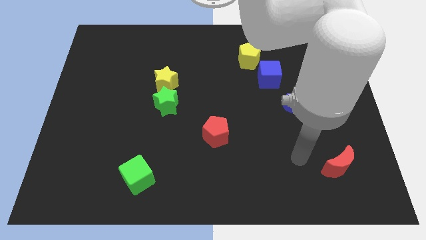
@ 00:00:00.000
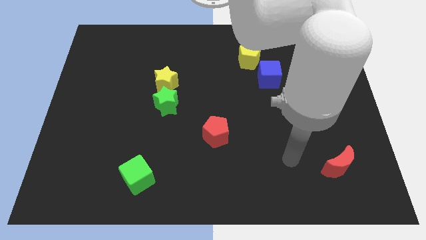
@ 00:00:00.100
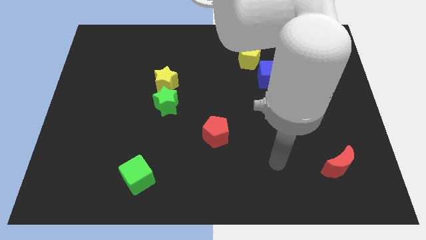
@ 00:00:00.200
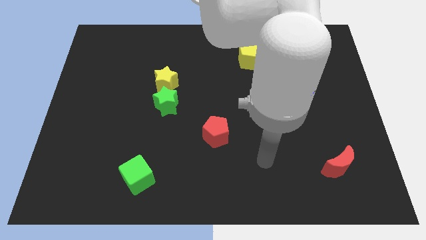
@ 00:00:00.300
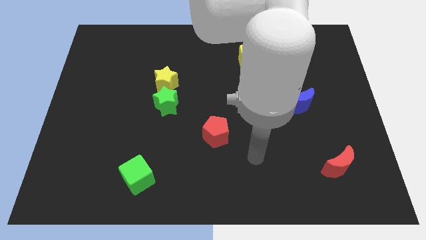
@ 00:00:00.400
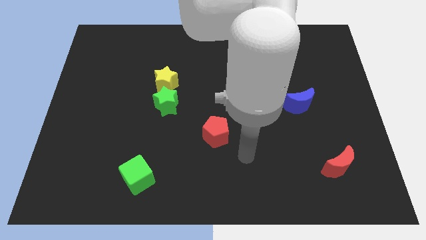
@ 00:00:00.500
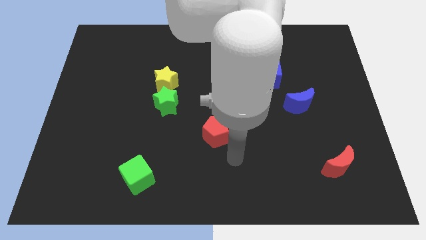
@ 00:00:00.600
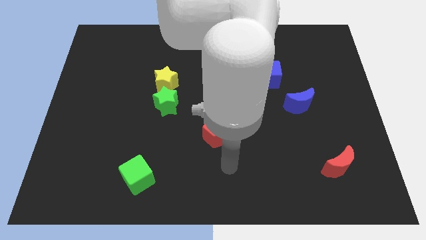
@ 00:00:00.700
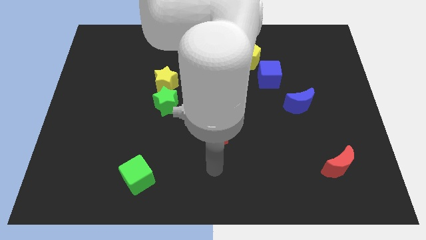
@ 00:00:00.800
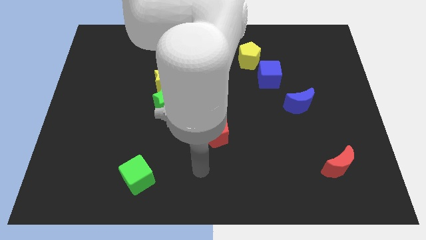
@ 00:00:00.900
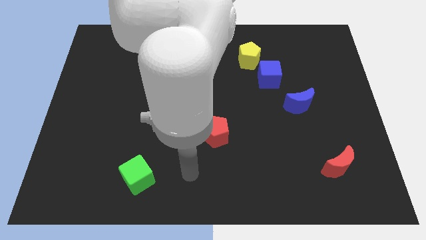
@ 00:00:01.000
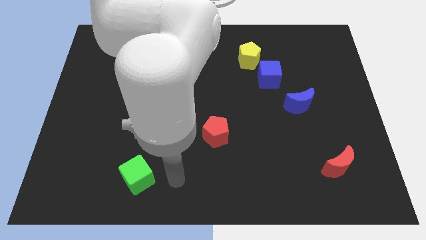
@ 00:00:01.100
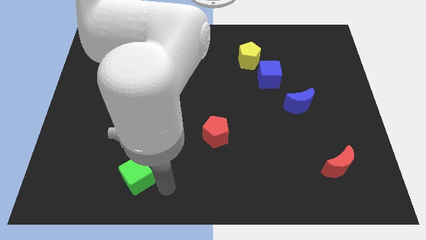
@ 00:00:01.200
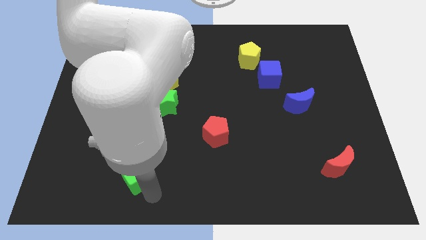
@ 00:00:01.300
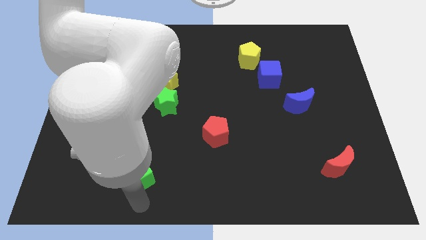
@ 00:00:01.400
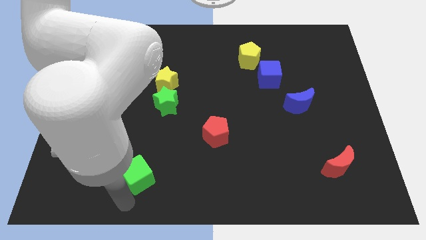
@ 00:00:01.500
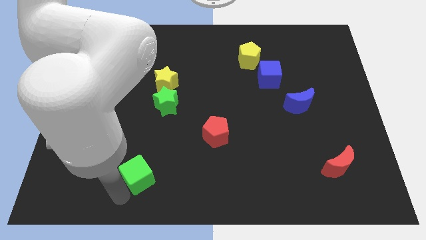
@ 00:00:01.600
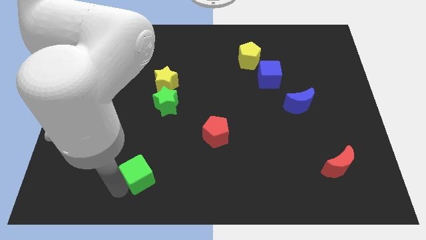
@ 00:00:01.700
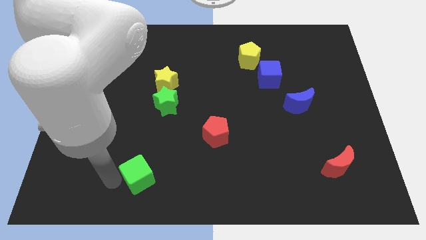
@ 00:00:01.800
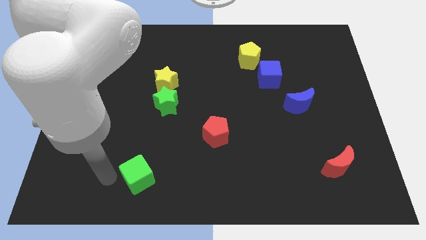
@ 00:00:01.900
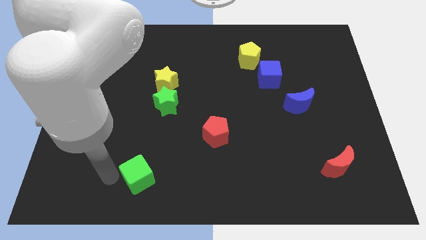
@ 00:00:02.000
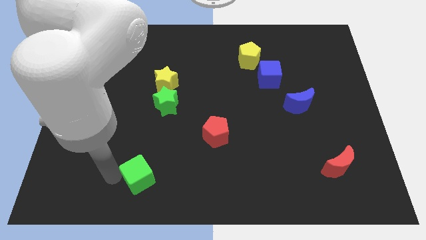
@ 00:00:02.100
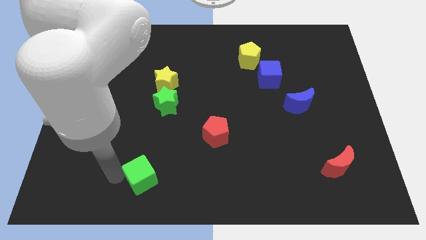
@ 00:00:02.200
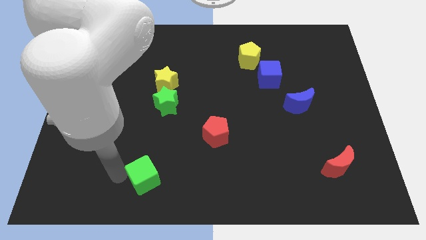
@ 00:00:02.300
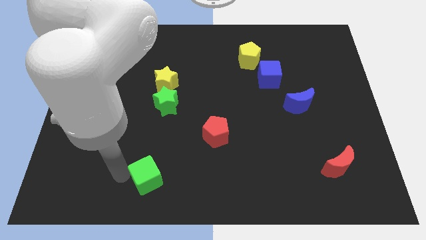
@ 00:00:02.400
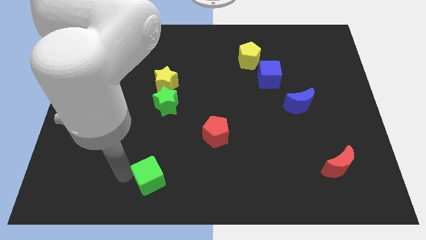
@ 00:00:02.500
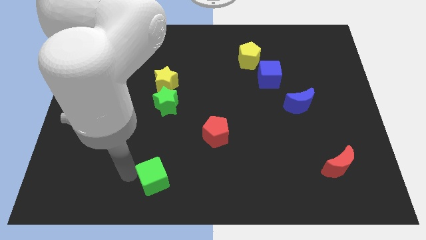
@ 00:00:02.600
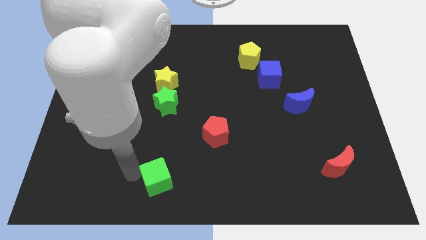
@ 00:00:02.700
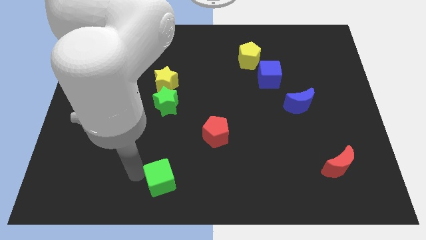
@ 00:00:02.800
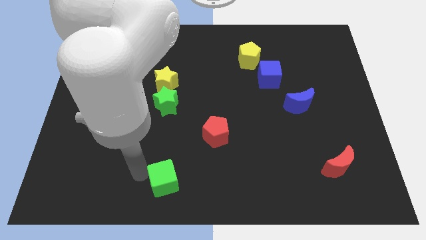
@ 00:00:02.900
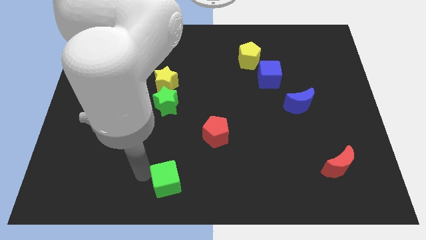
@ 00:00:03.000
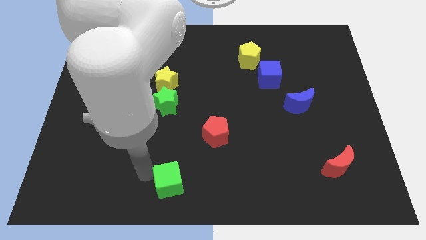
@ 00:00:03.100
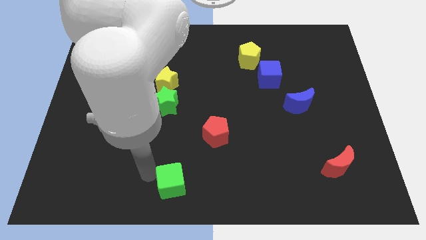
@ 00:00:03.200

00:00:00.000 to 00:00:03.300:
slightly push the green cube to the right

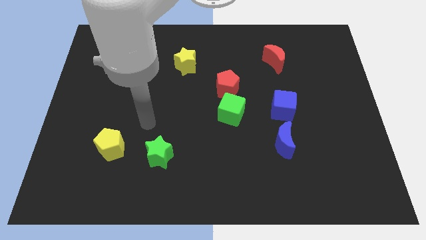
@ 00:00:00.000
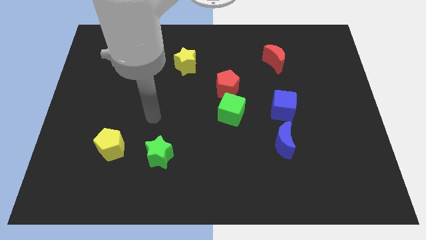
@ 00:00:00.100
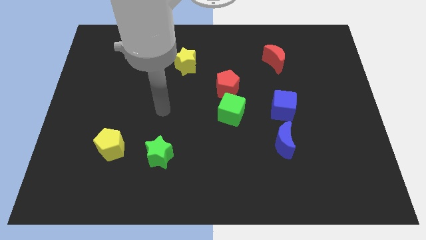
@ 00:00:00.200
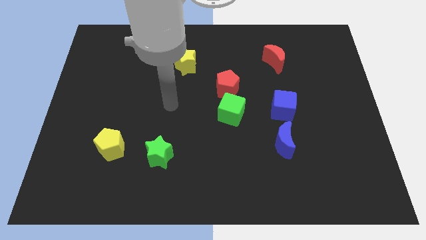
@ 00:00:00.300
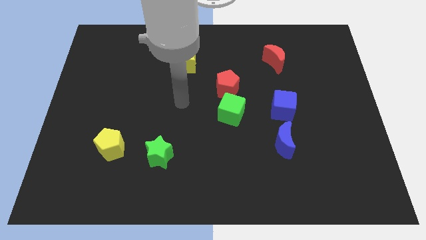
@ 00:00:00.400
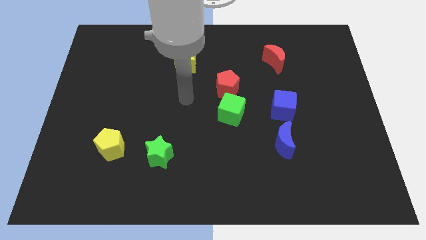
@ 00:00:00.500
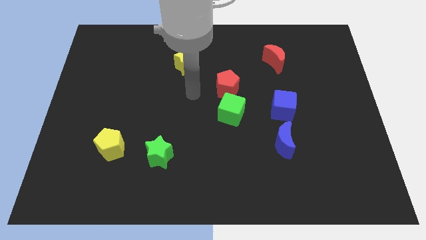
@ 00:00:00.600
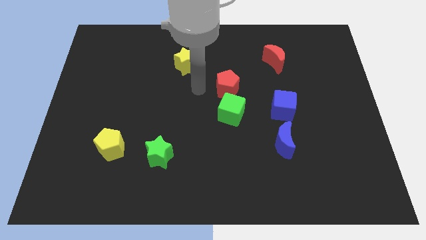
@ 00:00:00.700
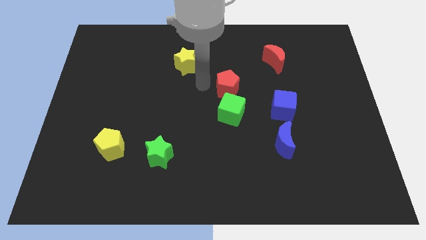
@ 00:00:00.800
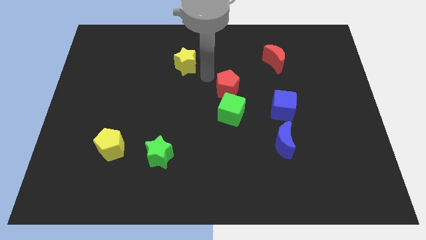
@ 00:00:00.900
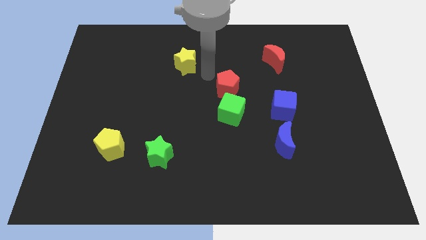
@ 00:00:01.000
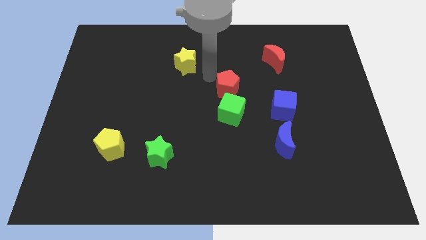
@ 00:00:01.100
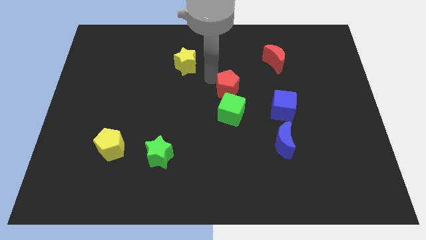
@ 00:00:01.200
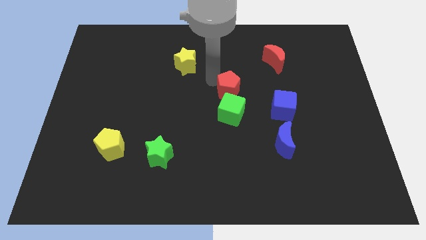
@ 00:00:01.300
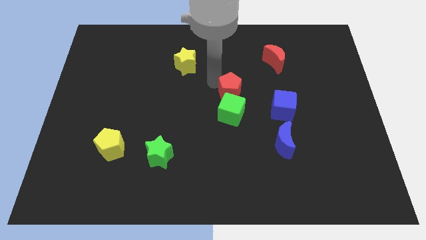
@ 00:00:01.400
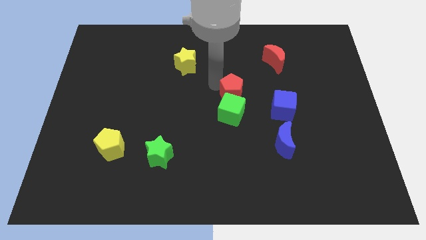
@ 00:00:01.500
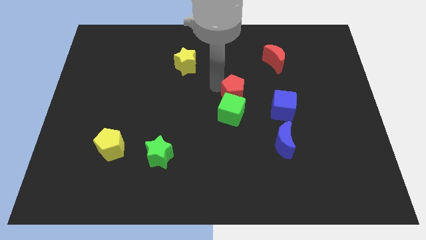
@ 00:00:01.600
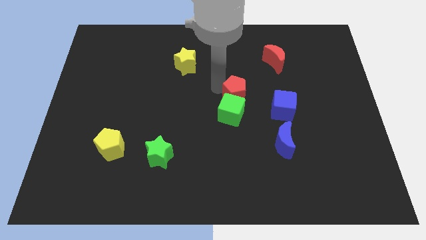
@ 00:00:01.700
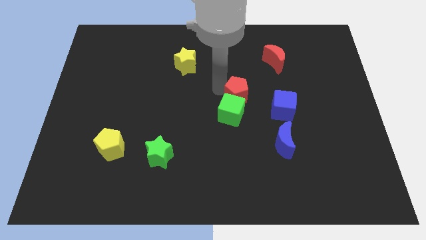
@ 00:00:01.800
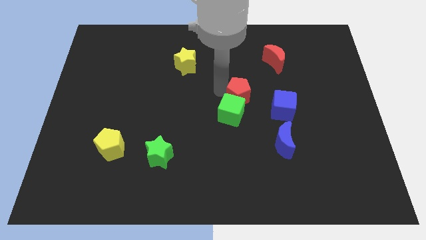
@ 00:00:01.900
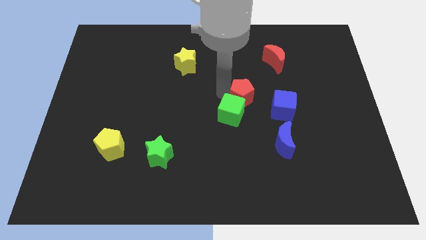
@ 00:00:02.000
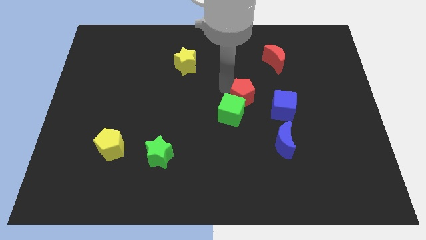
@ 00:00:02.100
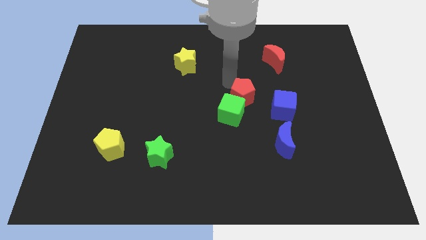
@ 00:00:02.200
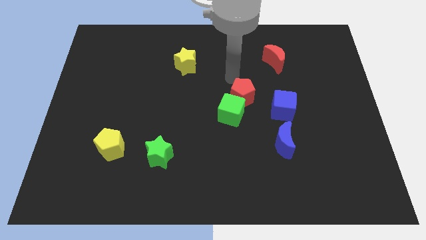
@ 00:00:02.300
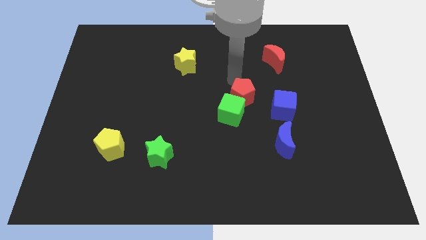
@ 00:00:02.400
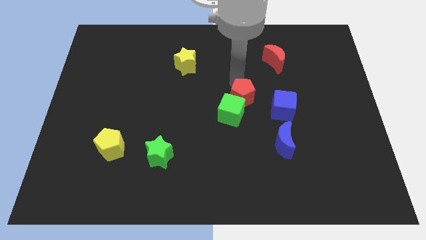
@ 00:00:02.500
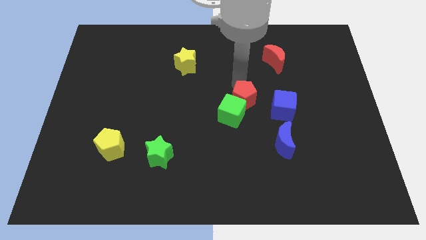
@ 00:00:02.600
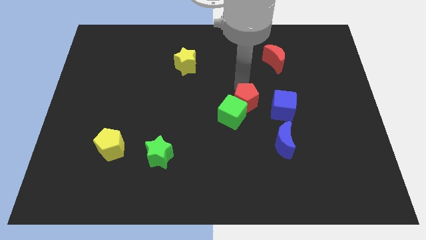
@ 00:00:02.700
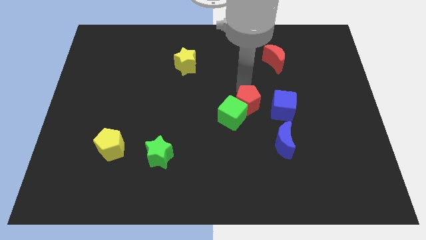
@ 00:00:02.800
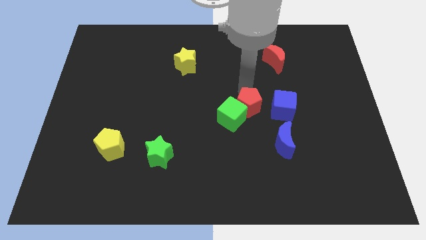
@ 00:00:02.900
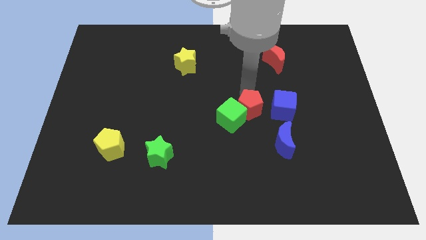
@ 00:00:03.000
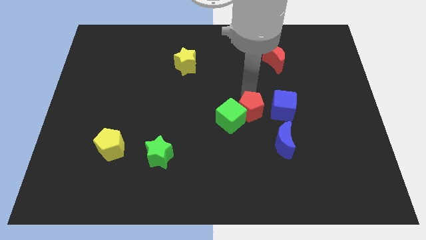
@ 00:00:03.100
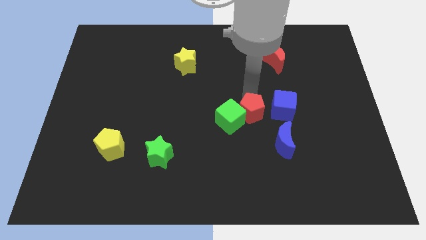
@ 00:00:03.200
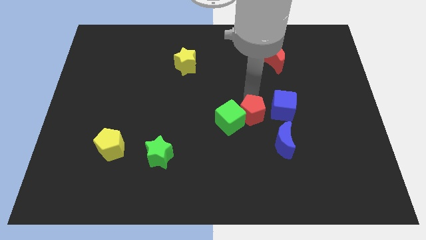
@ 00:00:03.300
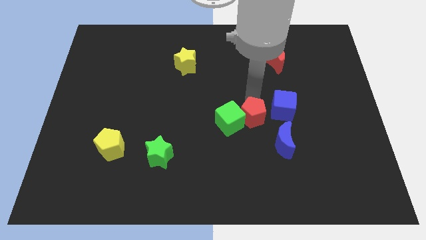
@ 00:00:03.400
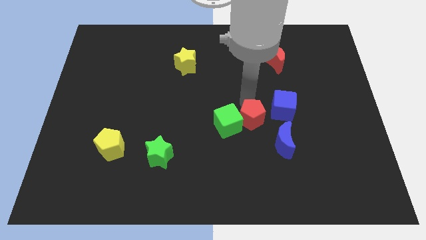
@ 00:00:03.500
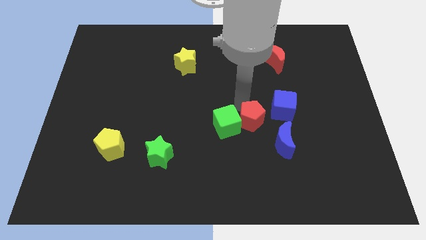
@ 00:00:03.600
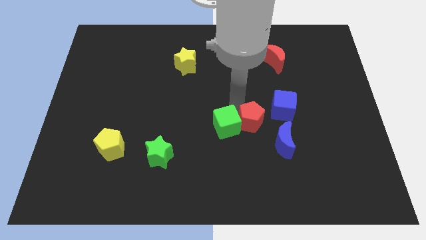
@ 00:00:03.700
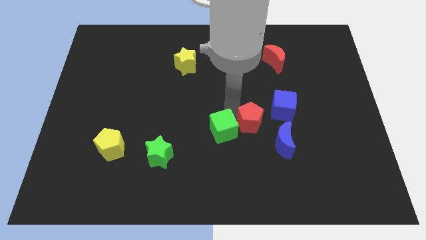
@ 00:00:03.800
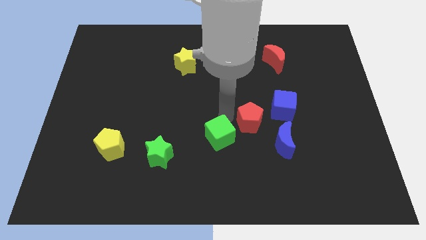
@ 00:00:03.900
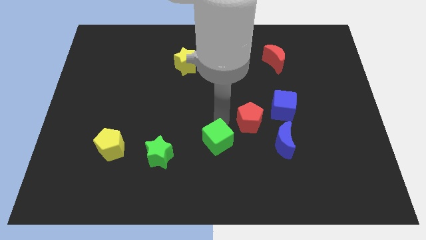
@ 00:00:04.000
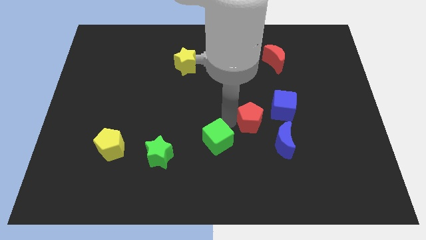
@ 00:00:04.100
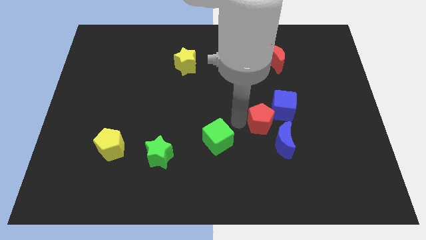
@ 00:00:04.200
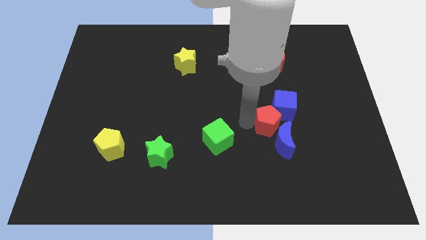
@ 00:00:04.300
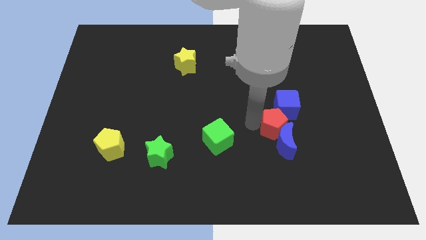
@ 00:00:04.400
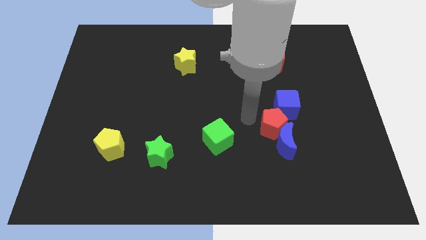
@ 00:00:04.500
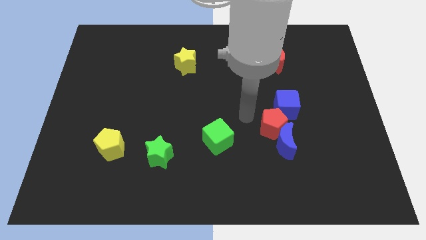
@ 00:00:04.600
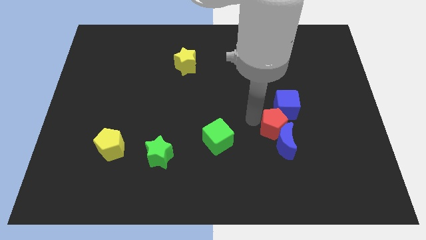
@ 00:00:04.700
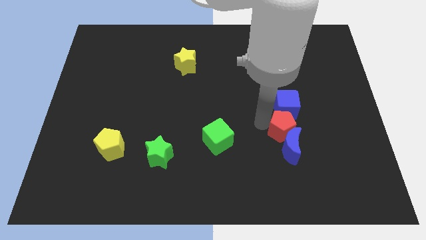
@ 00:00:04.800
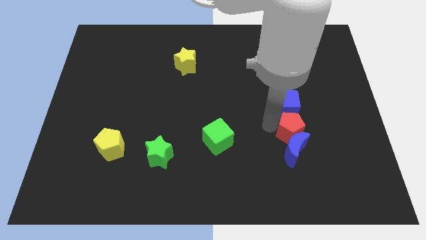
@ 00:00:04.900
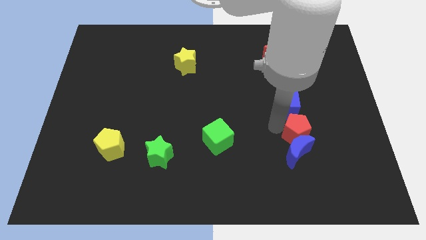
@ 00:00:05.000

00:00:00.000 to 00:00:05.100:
push the red pentagon diagonally downwards and to the right
